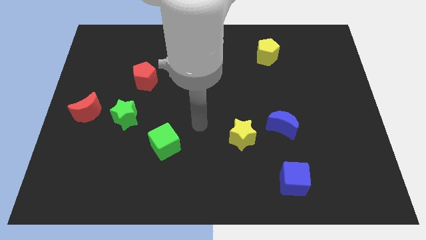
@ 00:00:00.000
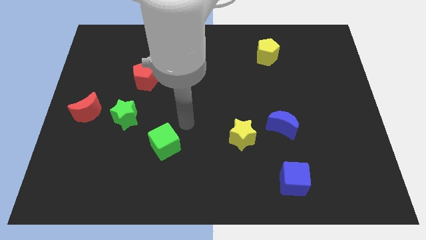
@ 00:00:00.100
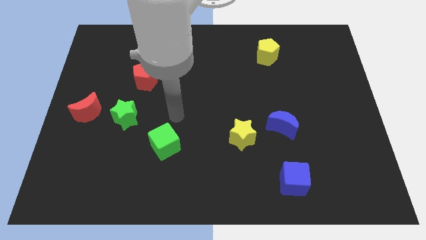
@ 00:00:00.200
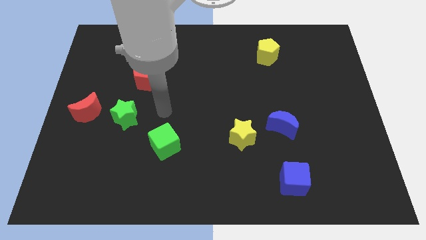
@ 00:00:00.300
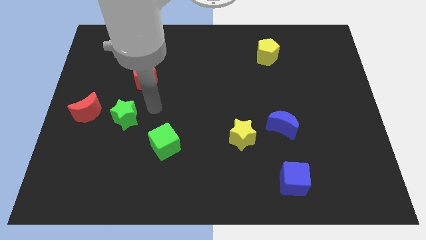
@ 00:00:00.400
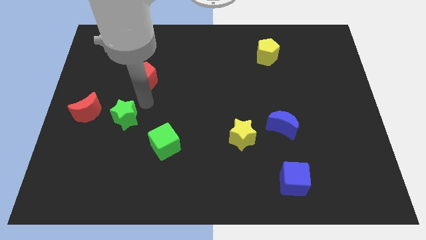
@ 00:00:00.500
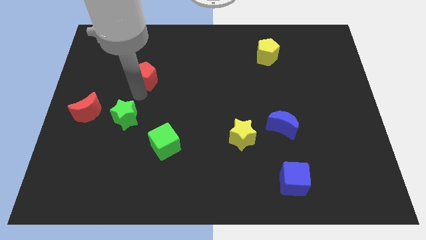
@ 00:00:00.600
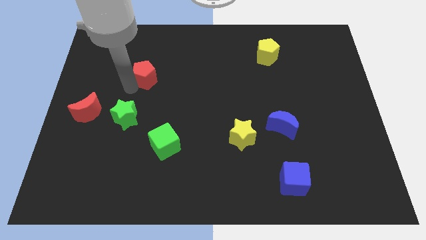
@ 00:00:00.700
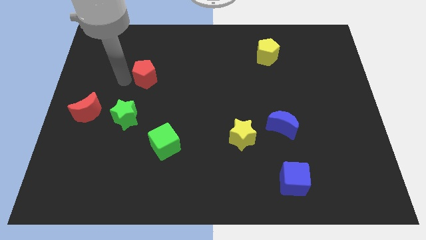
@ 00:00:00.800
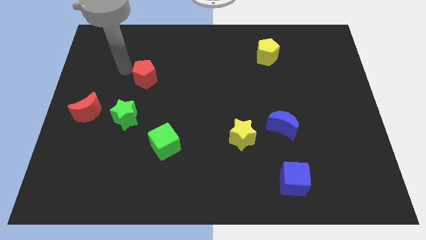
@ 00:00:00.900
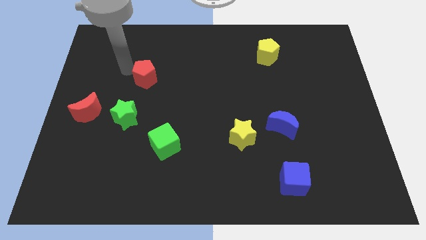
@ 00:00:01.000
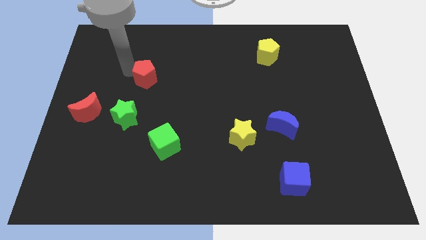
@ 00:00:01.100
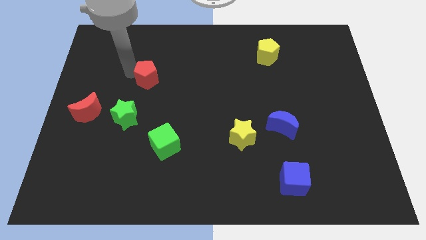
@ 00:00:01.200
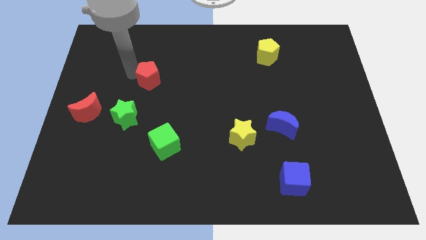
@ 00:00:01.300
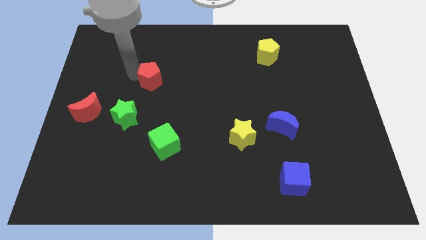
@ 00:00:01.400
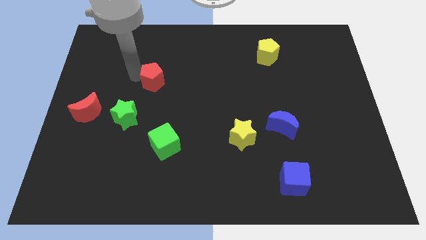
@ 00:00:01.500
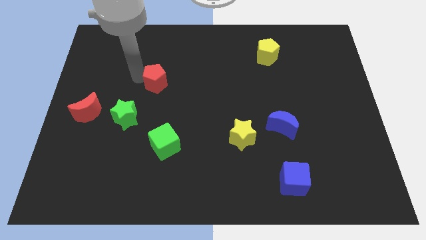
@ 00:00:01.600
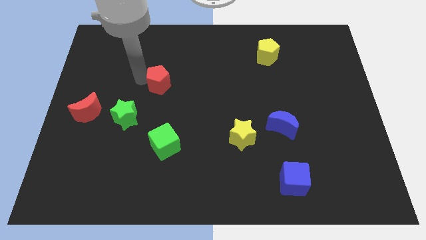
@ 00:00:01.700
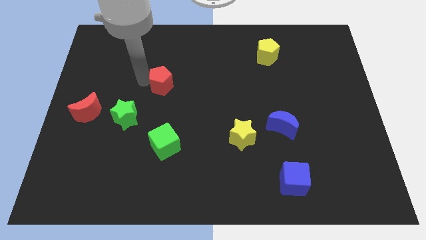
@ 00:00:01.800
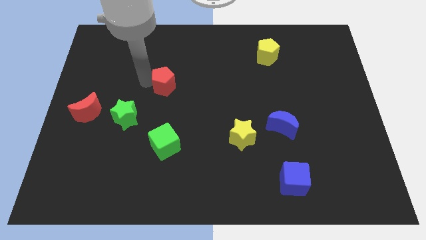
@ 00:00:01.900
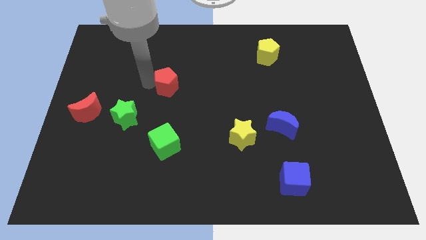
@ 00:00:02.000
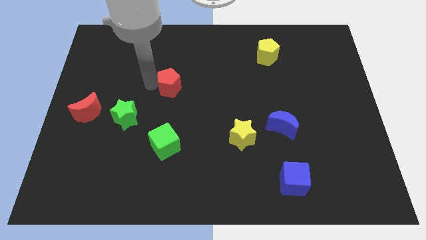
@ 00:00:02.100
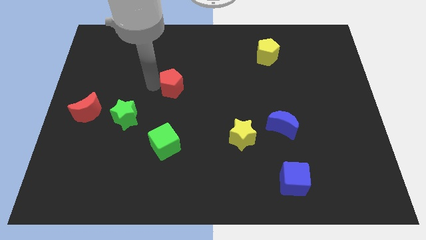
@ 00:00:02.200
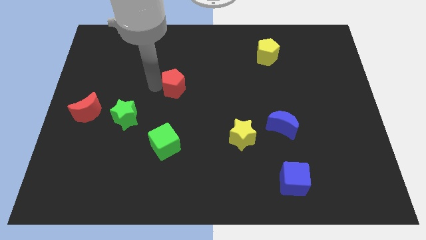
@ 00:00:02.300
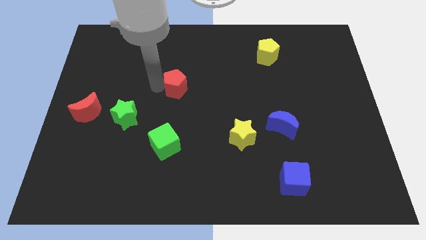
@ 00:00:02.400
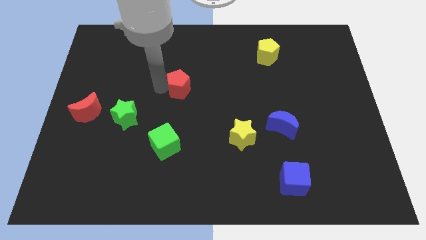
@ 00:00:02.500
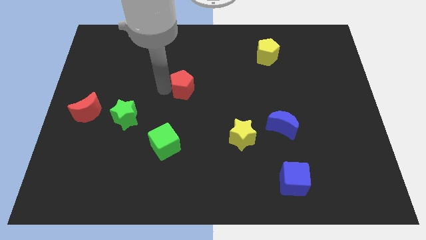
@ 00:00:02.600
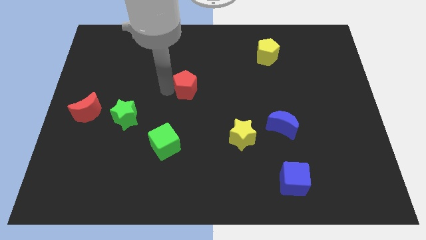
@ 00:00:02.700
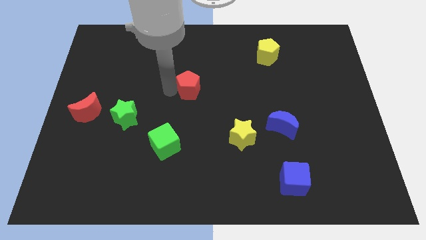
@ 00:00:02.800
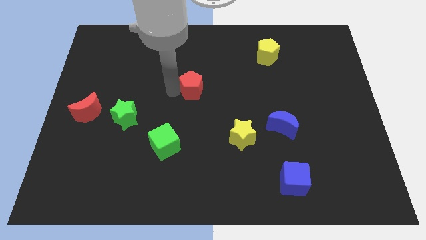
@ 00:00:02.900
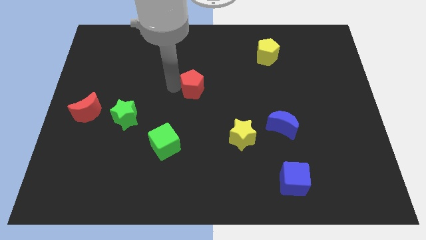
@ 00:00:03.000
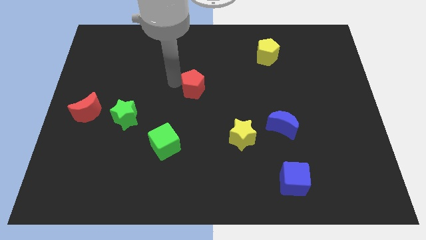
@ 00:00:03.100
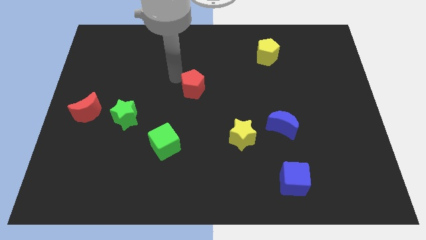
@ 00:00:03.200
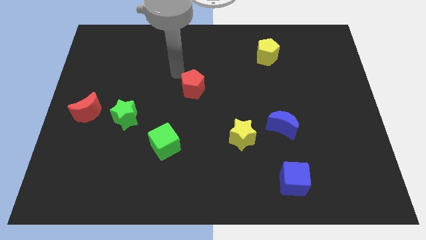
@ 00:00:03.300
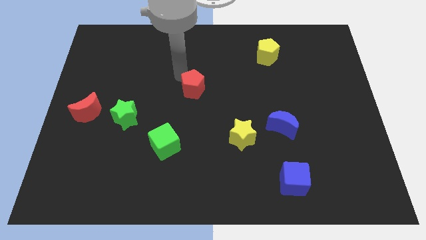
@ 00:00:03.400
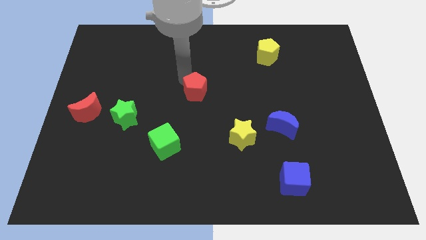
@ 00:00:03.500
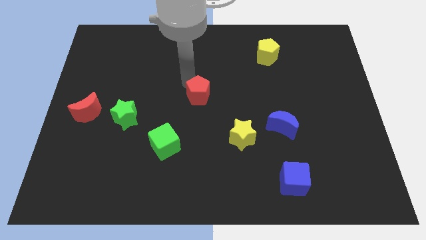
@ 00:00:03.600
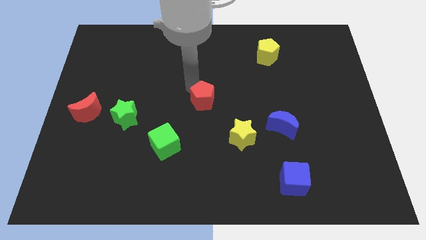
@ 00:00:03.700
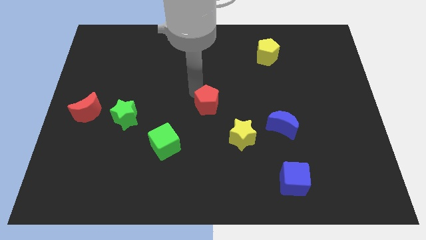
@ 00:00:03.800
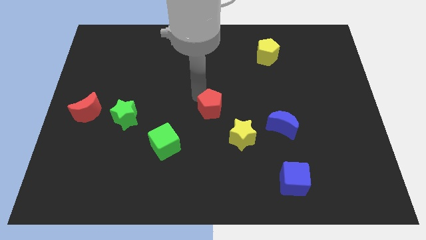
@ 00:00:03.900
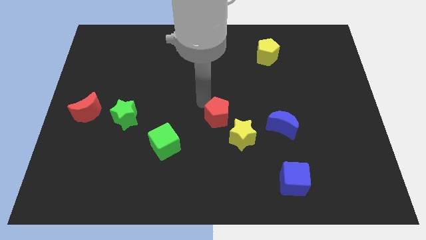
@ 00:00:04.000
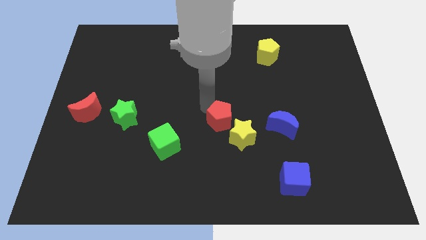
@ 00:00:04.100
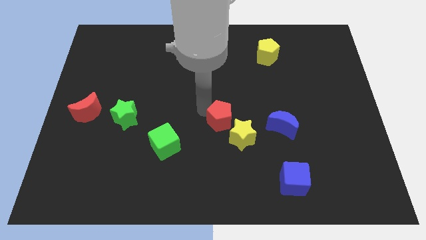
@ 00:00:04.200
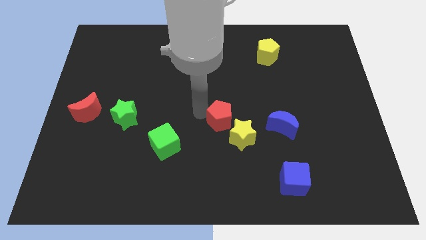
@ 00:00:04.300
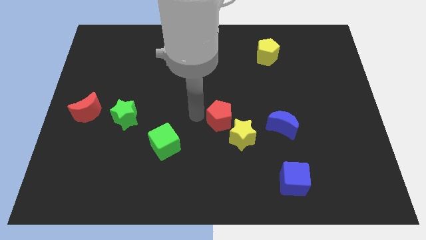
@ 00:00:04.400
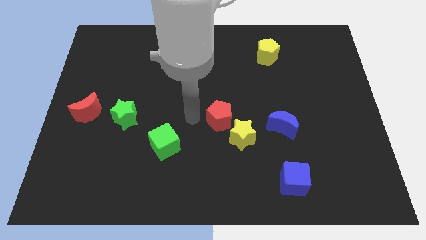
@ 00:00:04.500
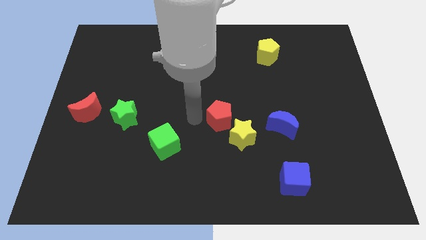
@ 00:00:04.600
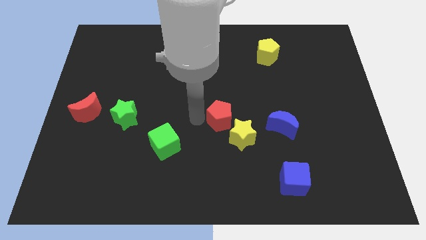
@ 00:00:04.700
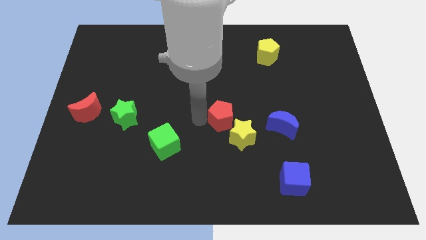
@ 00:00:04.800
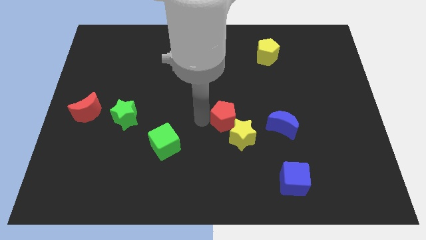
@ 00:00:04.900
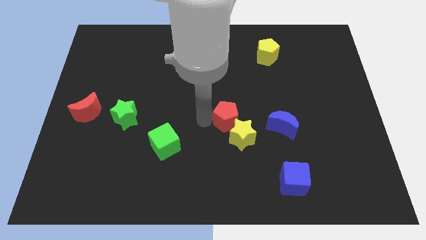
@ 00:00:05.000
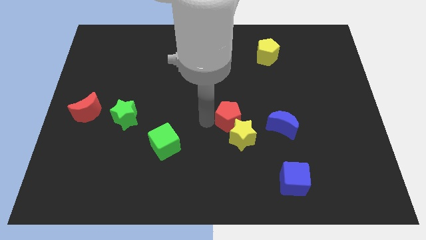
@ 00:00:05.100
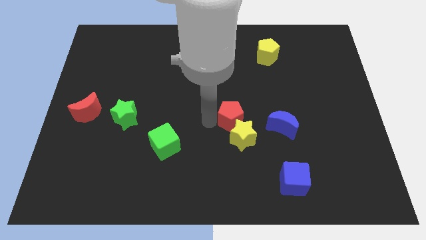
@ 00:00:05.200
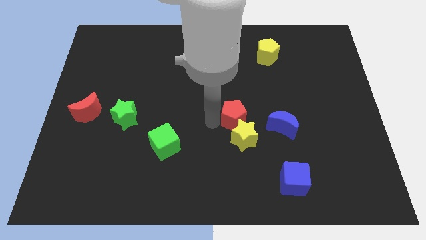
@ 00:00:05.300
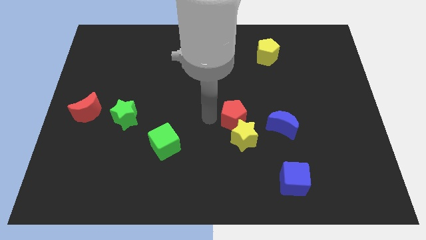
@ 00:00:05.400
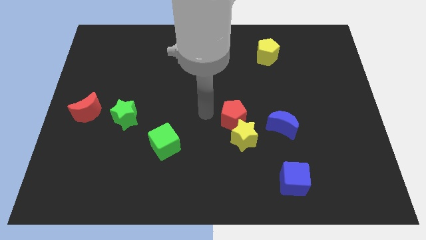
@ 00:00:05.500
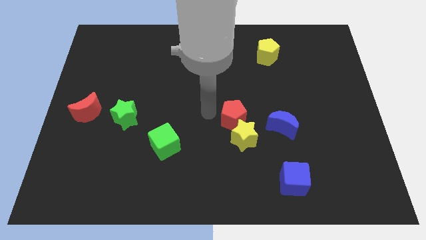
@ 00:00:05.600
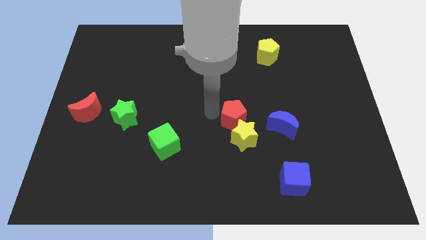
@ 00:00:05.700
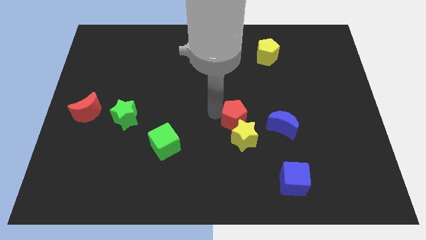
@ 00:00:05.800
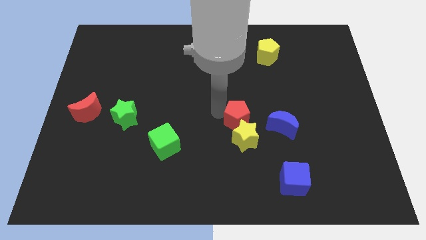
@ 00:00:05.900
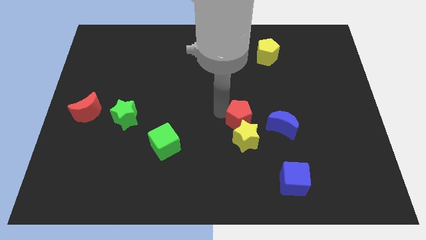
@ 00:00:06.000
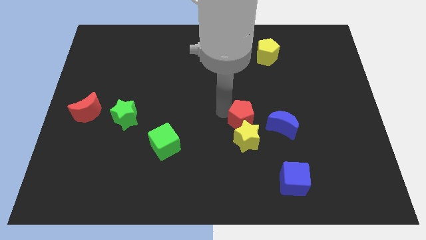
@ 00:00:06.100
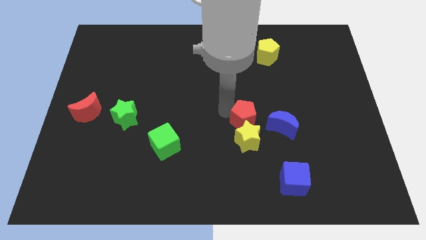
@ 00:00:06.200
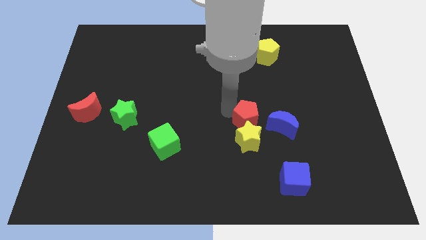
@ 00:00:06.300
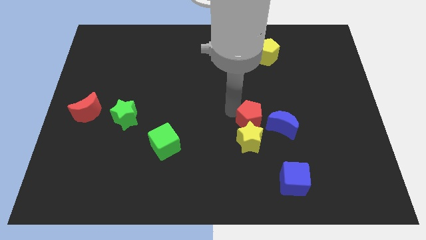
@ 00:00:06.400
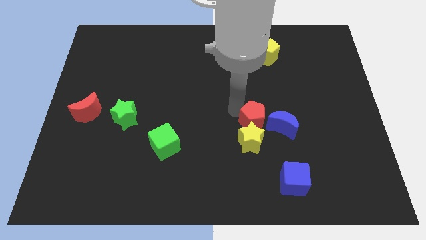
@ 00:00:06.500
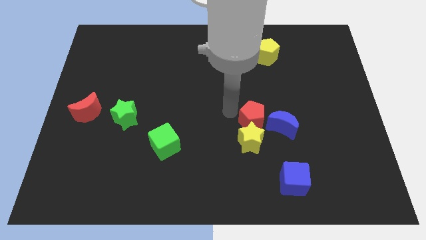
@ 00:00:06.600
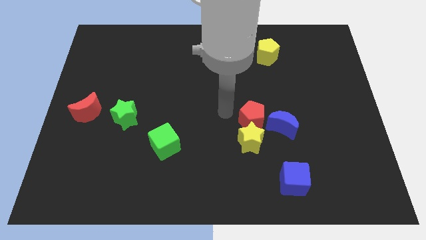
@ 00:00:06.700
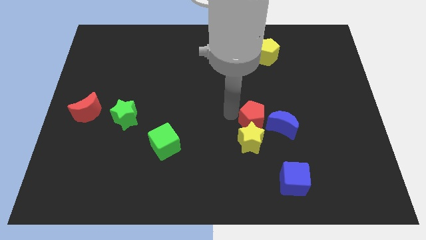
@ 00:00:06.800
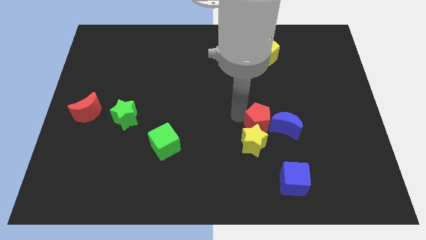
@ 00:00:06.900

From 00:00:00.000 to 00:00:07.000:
move the red pentagon towards the blue moon

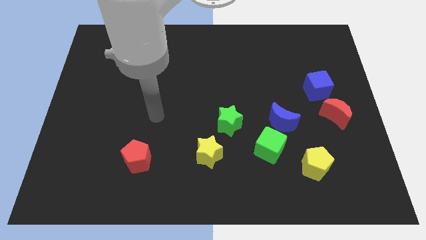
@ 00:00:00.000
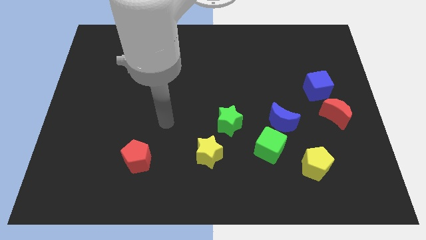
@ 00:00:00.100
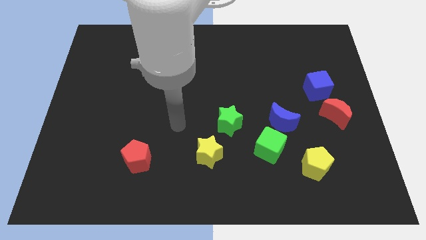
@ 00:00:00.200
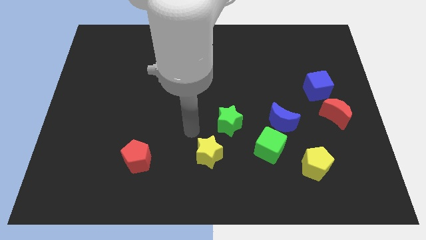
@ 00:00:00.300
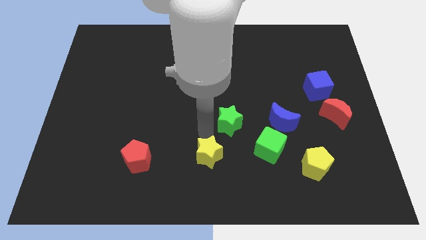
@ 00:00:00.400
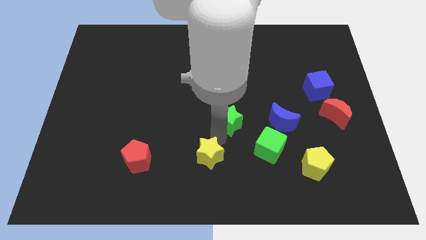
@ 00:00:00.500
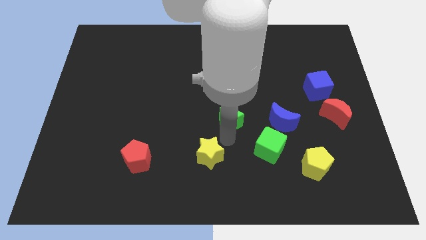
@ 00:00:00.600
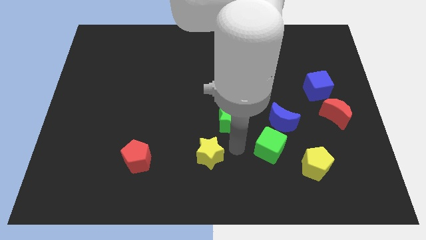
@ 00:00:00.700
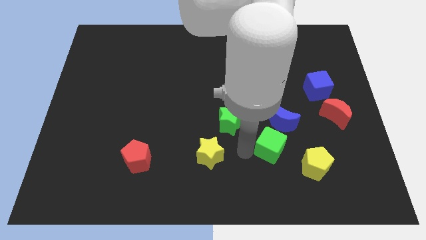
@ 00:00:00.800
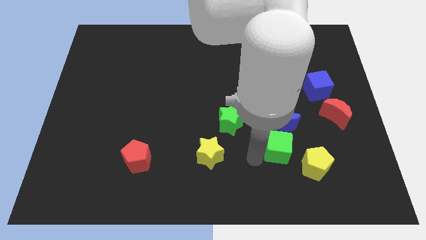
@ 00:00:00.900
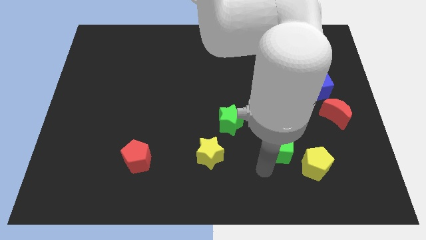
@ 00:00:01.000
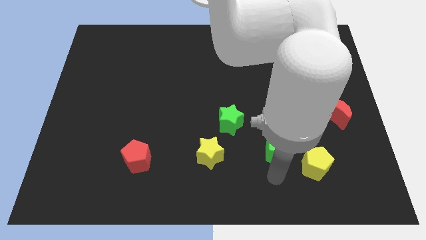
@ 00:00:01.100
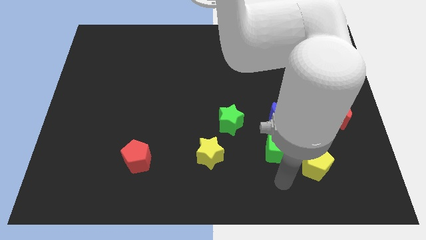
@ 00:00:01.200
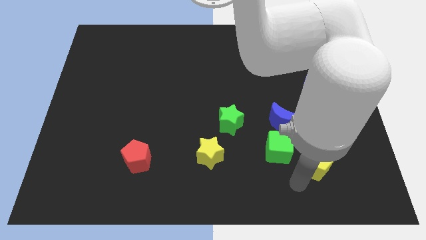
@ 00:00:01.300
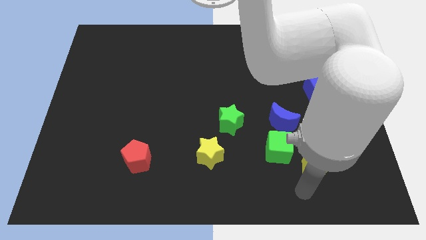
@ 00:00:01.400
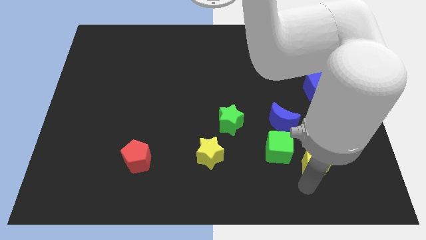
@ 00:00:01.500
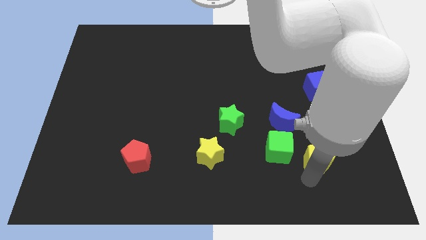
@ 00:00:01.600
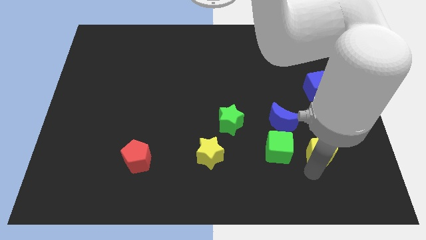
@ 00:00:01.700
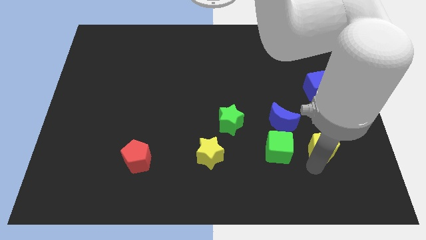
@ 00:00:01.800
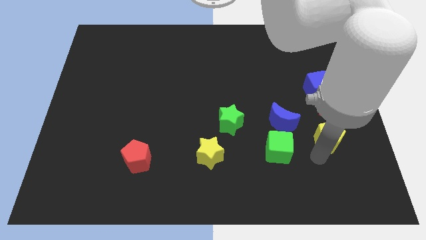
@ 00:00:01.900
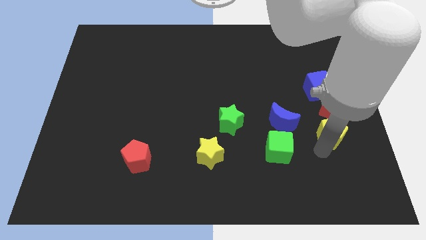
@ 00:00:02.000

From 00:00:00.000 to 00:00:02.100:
slide the yellow pentagon close to the red moon
